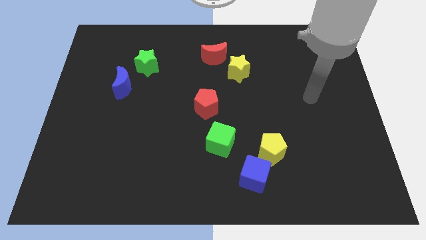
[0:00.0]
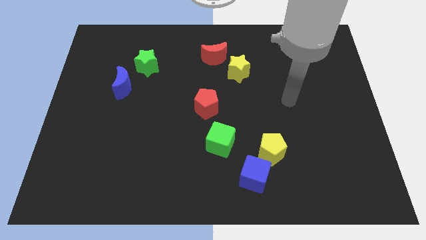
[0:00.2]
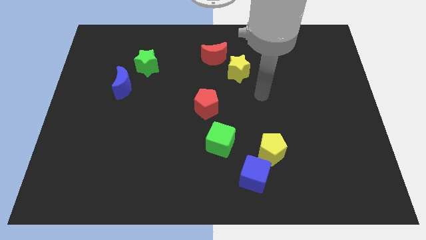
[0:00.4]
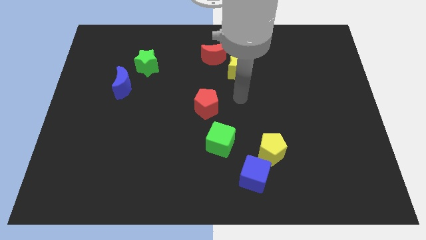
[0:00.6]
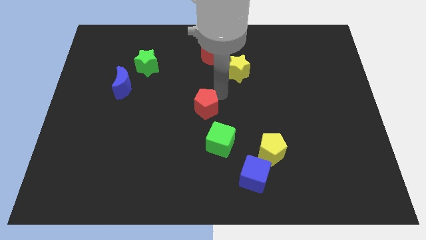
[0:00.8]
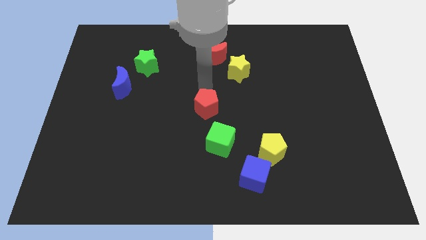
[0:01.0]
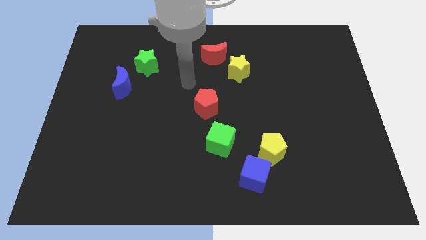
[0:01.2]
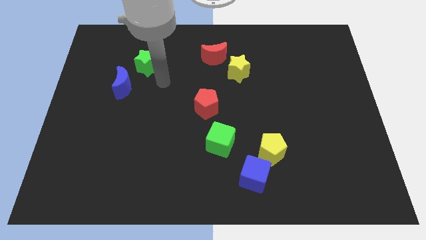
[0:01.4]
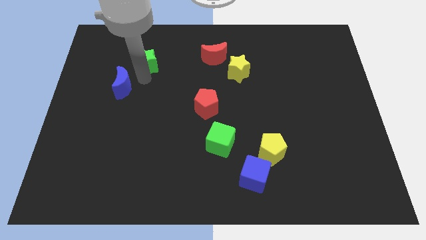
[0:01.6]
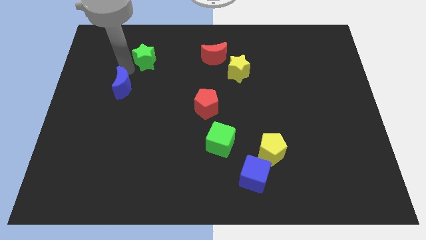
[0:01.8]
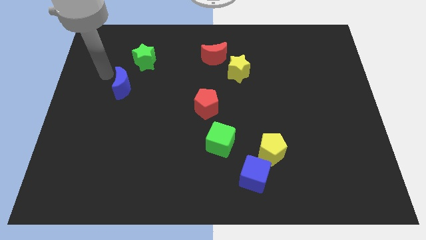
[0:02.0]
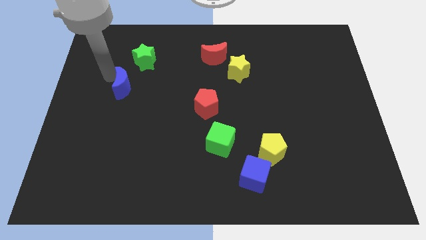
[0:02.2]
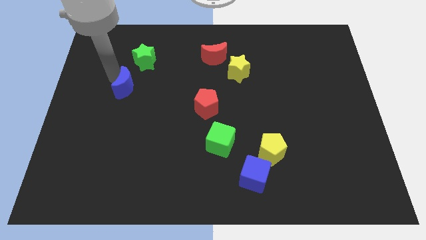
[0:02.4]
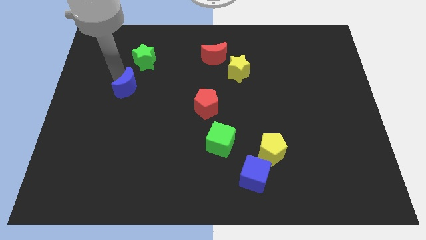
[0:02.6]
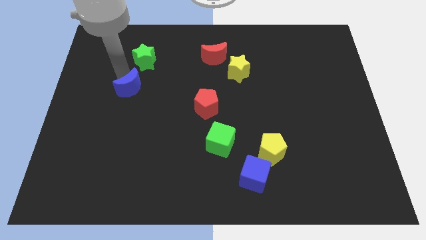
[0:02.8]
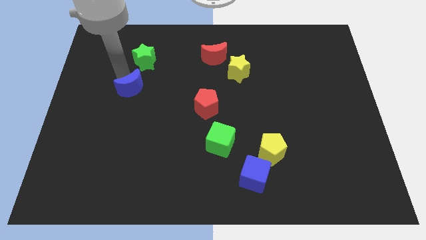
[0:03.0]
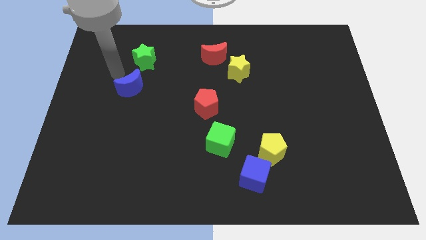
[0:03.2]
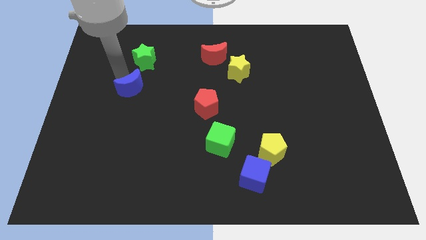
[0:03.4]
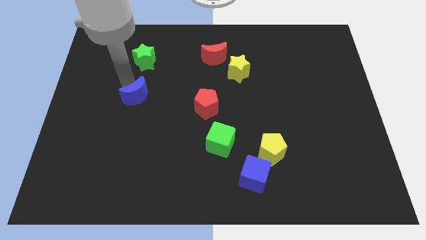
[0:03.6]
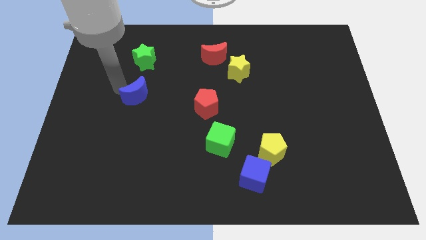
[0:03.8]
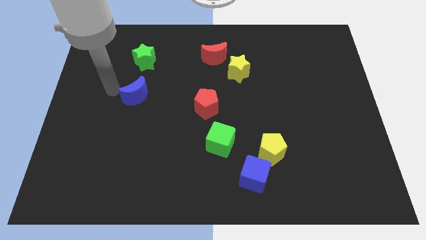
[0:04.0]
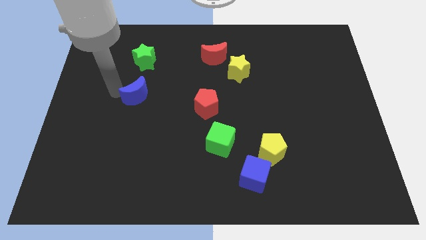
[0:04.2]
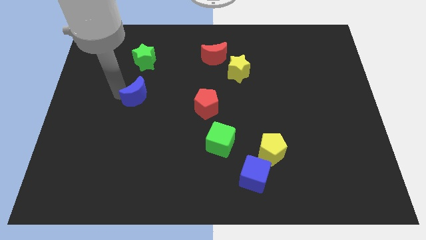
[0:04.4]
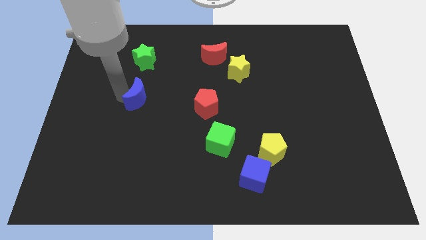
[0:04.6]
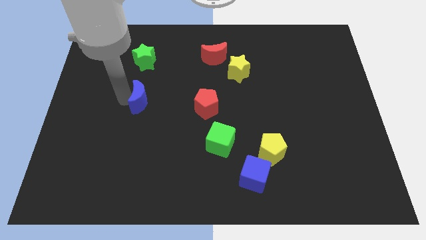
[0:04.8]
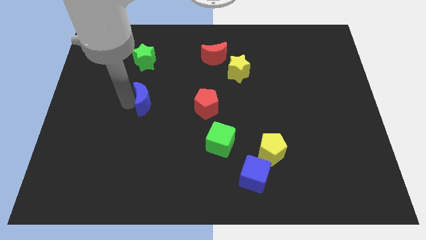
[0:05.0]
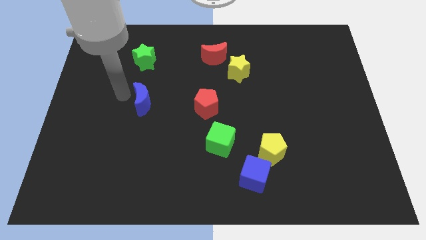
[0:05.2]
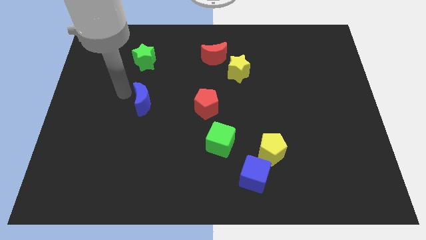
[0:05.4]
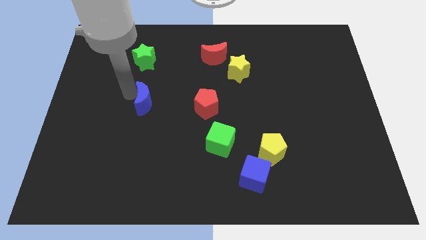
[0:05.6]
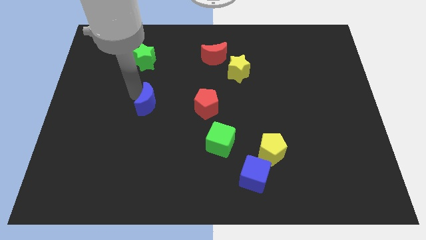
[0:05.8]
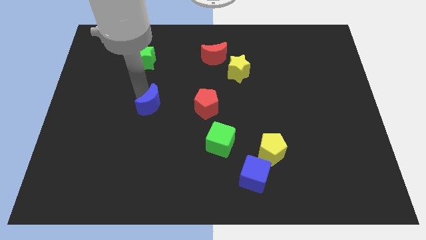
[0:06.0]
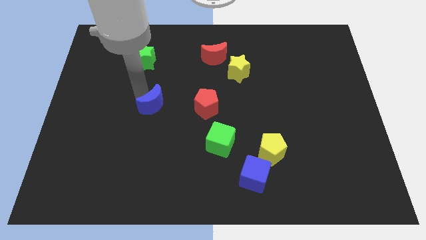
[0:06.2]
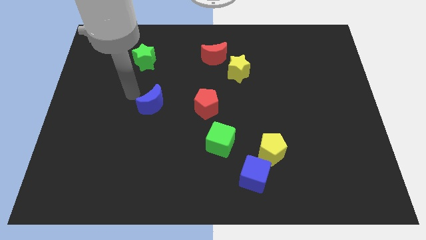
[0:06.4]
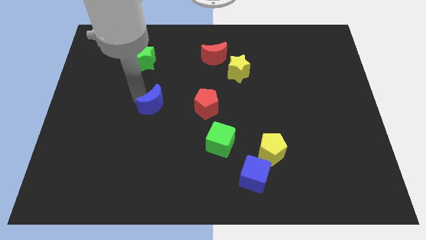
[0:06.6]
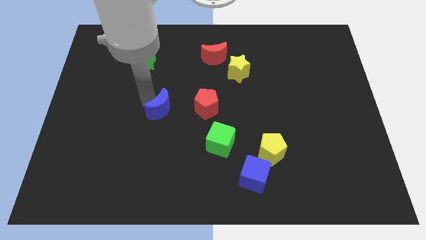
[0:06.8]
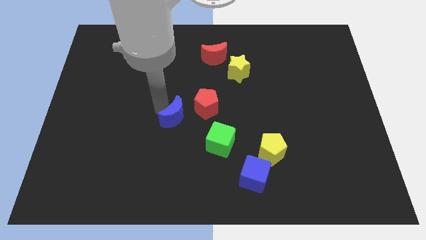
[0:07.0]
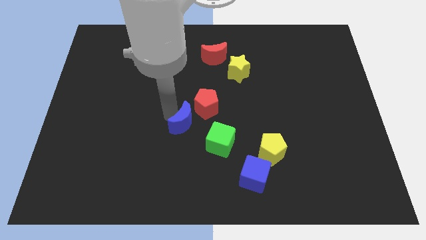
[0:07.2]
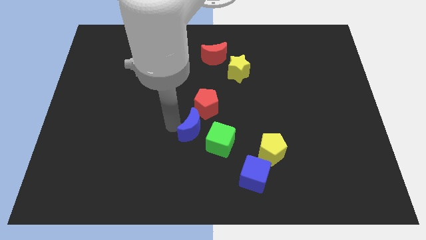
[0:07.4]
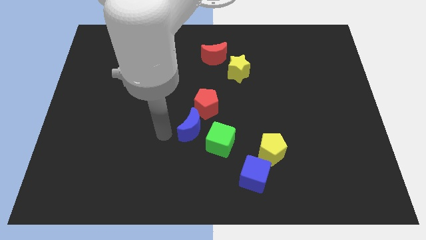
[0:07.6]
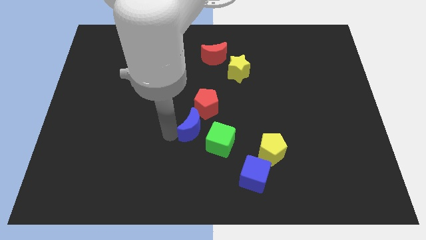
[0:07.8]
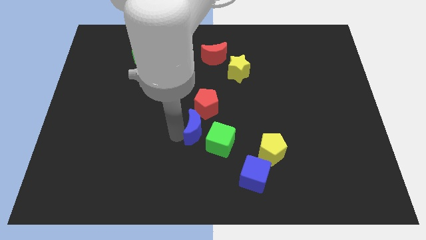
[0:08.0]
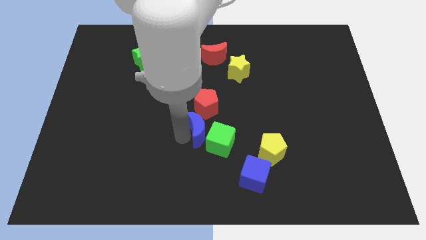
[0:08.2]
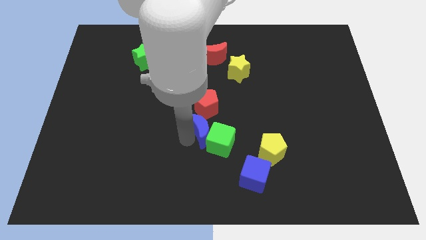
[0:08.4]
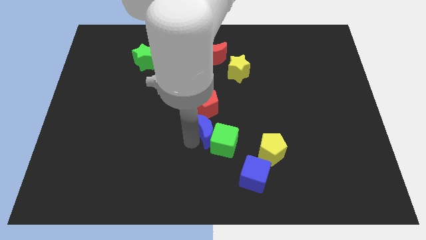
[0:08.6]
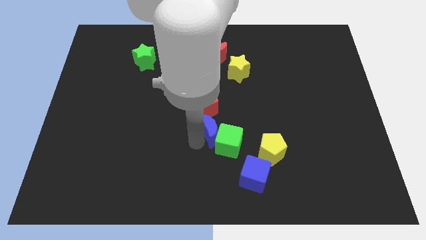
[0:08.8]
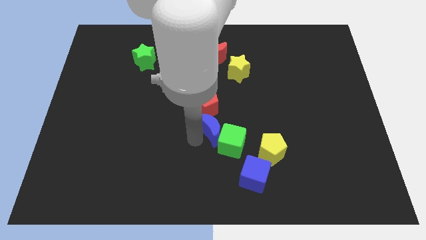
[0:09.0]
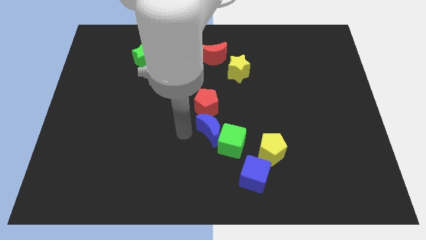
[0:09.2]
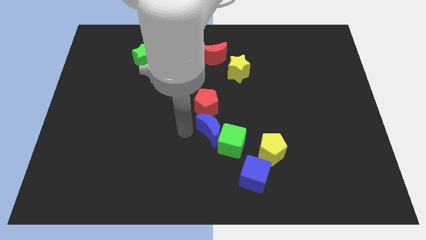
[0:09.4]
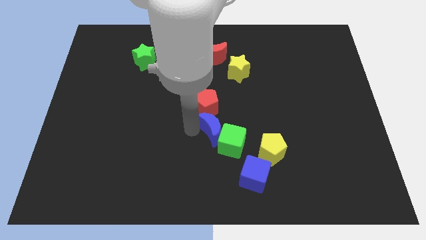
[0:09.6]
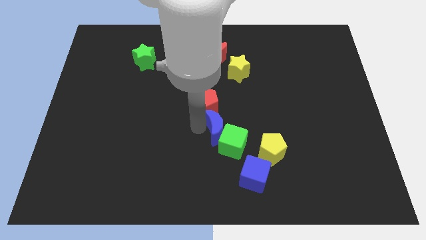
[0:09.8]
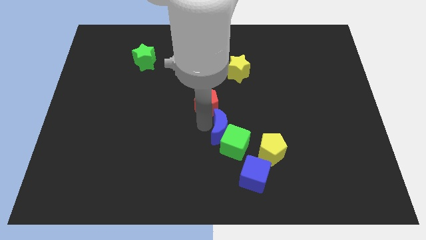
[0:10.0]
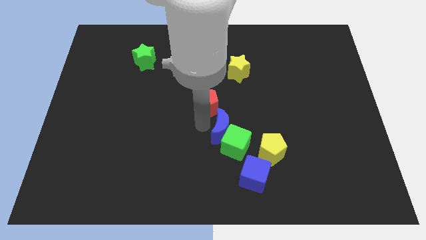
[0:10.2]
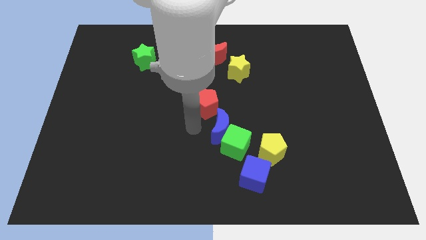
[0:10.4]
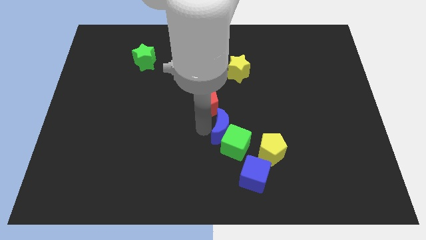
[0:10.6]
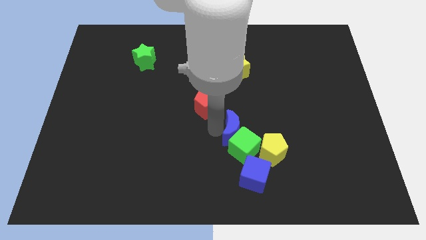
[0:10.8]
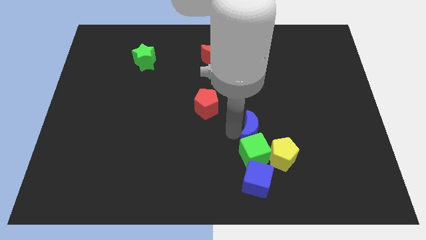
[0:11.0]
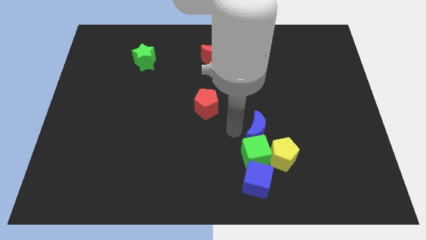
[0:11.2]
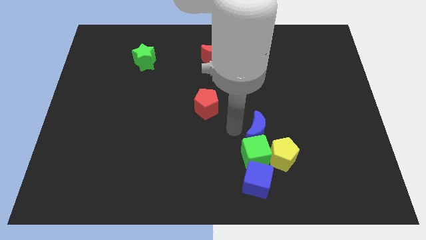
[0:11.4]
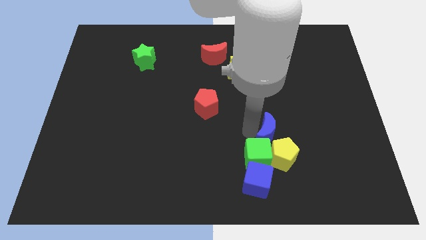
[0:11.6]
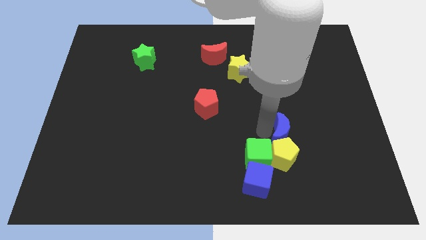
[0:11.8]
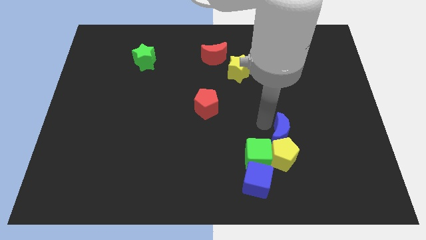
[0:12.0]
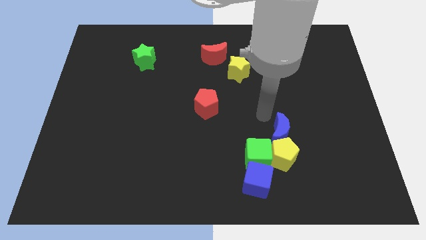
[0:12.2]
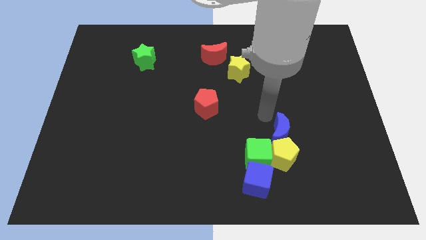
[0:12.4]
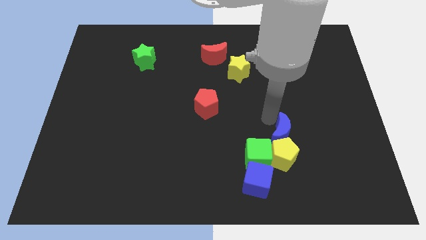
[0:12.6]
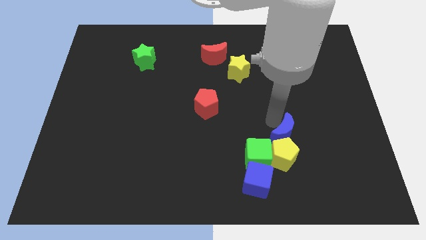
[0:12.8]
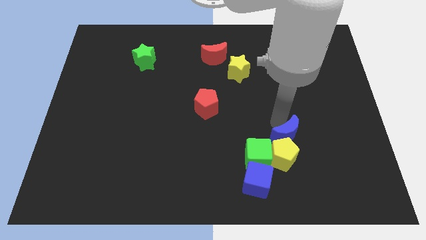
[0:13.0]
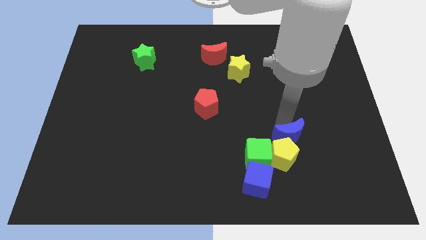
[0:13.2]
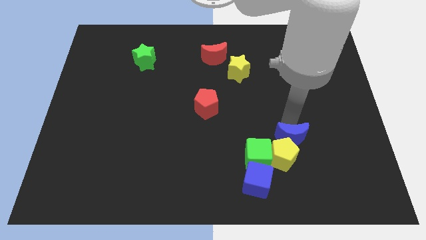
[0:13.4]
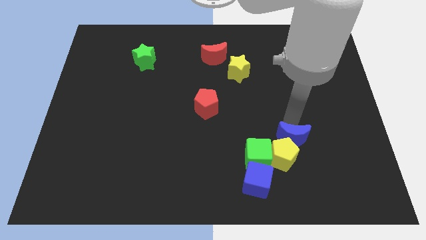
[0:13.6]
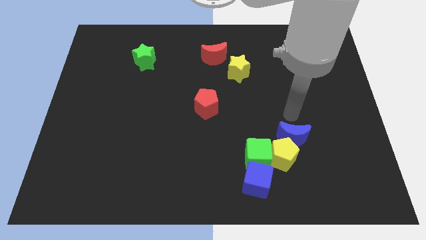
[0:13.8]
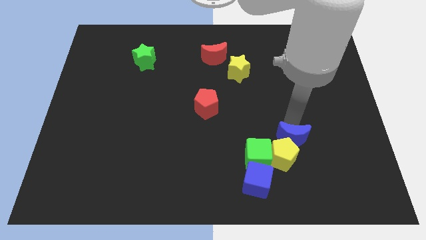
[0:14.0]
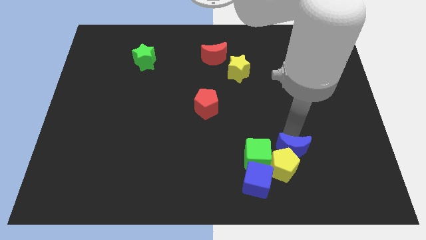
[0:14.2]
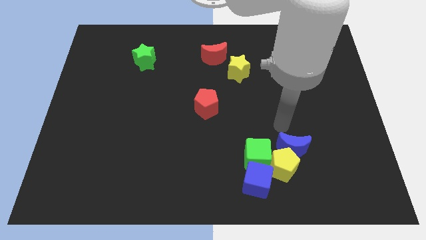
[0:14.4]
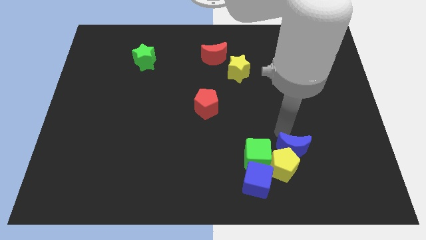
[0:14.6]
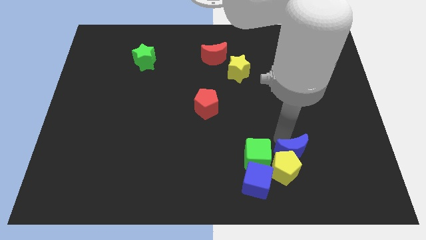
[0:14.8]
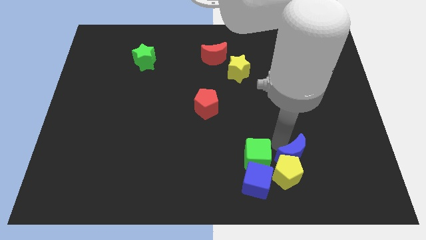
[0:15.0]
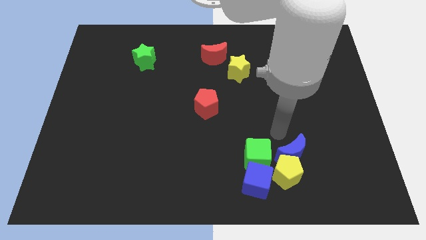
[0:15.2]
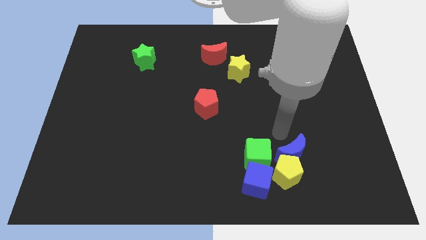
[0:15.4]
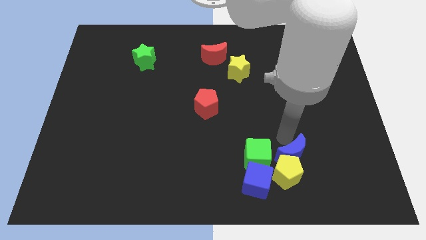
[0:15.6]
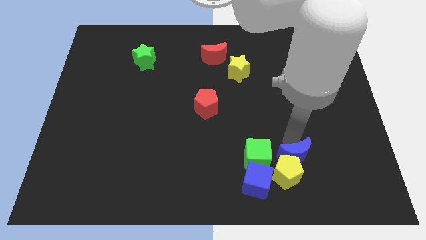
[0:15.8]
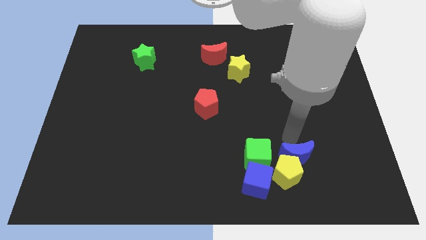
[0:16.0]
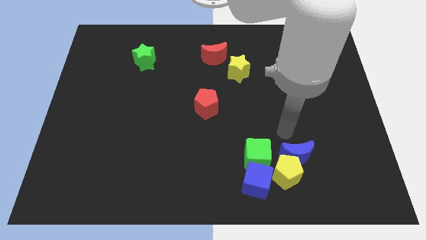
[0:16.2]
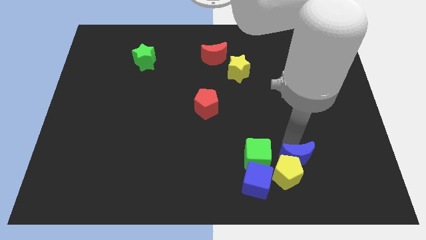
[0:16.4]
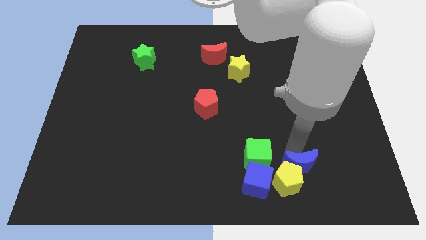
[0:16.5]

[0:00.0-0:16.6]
slide the blue moon to the right side of the blue cube
